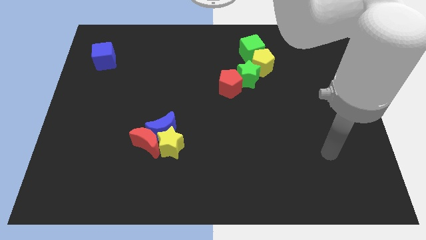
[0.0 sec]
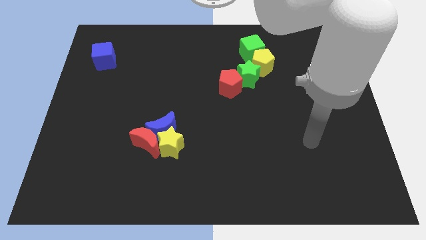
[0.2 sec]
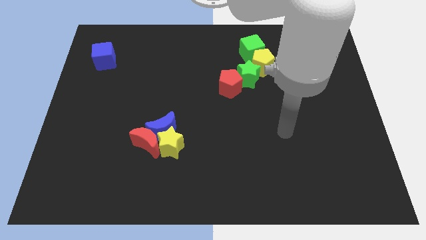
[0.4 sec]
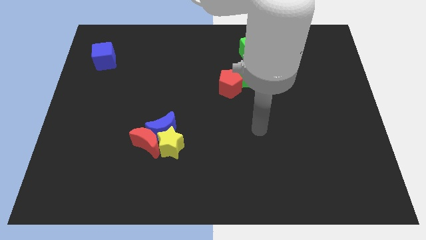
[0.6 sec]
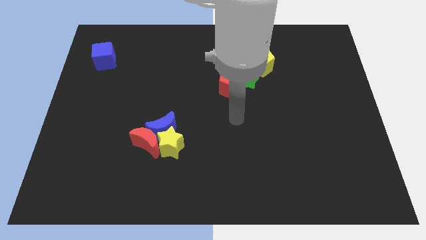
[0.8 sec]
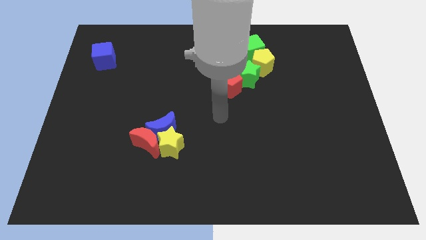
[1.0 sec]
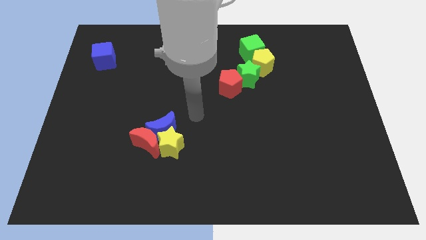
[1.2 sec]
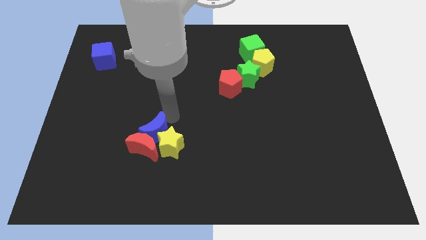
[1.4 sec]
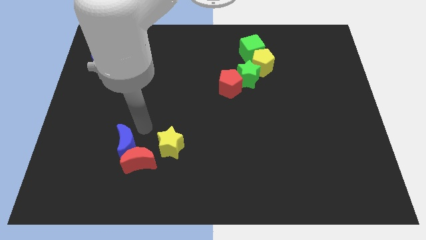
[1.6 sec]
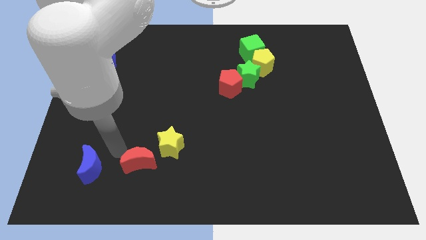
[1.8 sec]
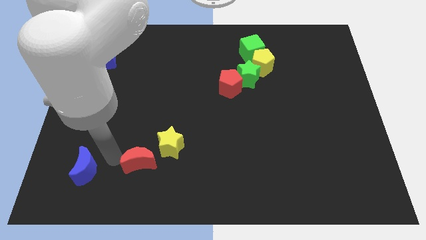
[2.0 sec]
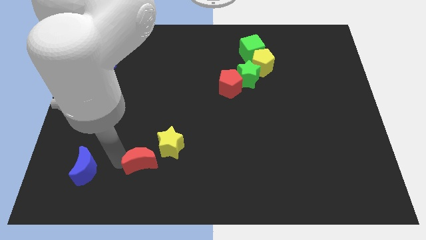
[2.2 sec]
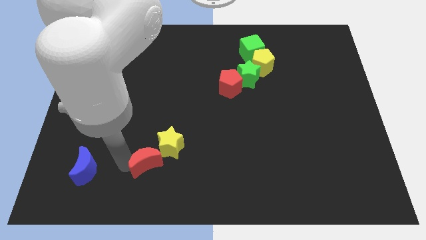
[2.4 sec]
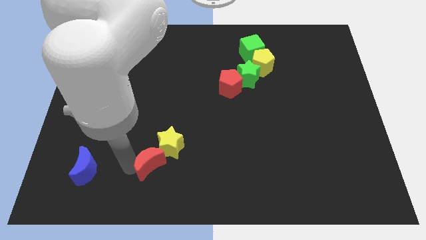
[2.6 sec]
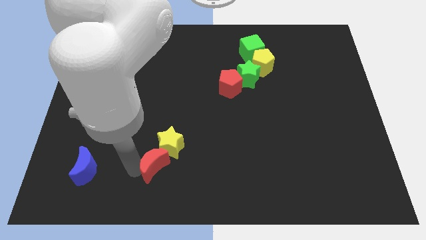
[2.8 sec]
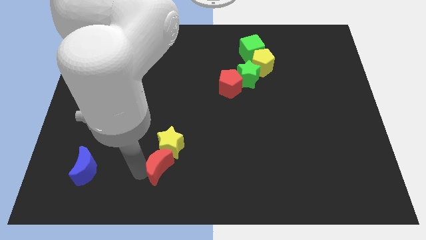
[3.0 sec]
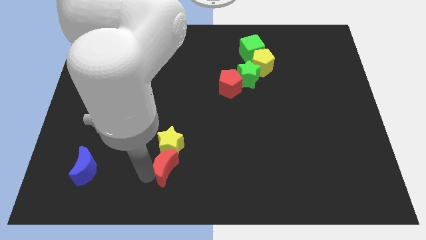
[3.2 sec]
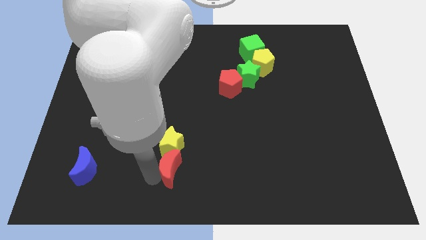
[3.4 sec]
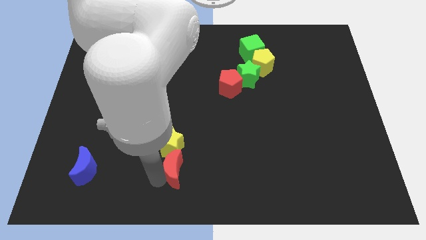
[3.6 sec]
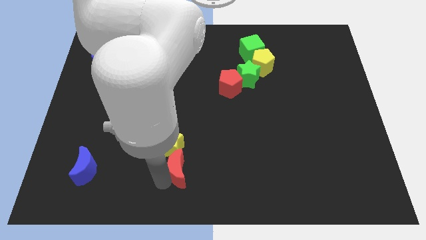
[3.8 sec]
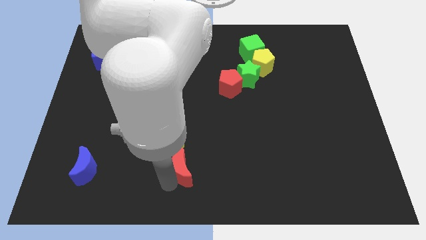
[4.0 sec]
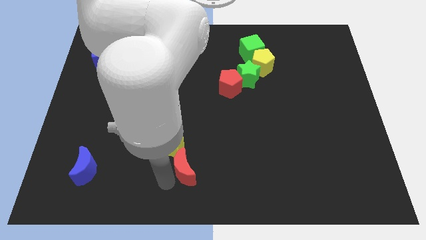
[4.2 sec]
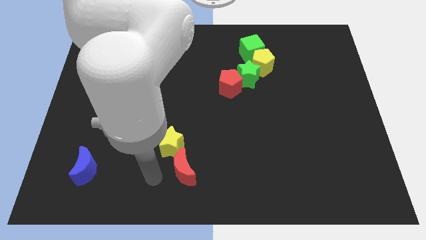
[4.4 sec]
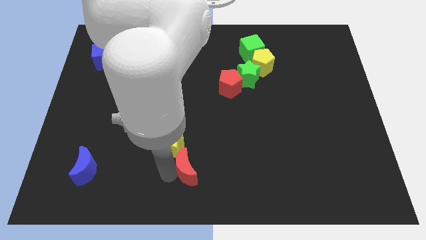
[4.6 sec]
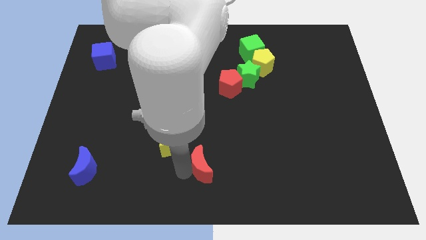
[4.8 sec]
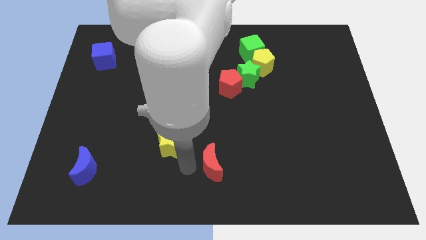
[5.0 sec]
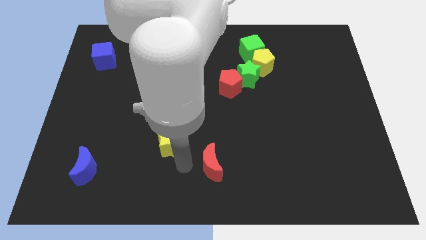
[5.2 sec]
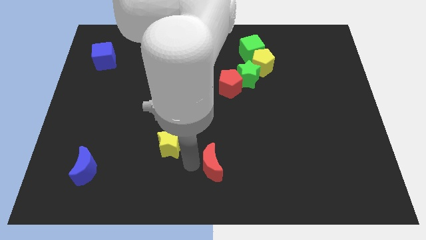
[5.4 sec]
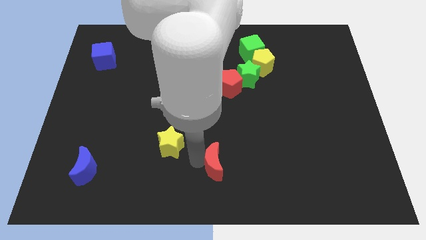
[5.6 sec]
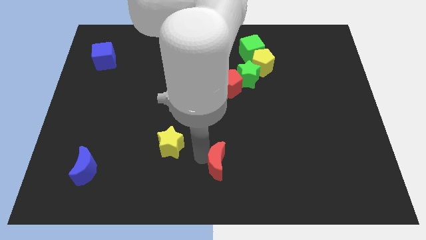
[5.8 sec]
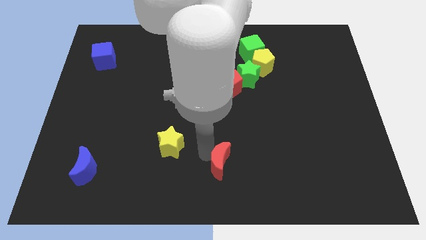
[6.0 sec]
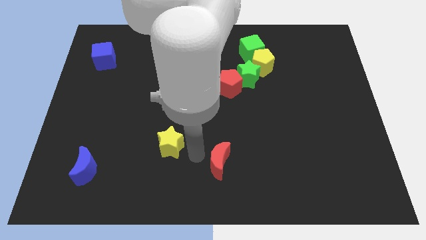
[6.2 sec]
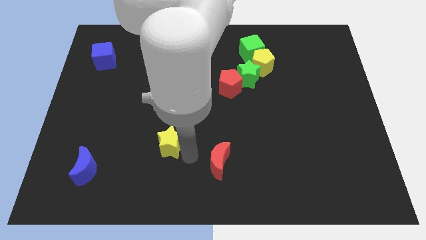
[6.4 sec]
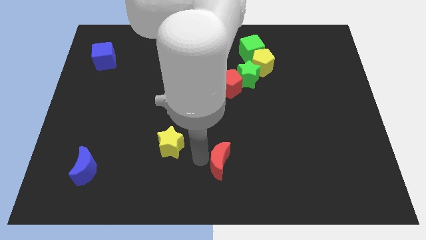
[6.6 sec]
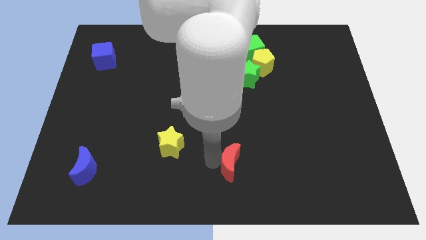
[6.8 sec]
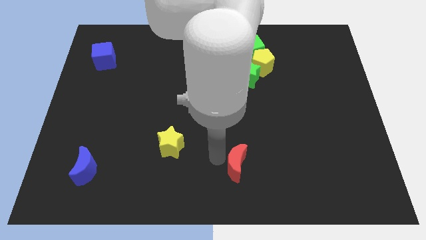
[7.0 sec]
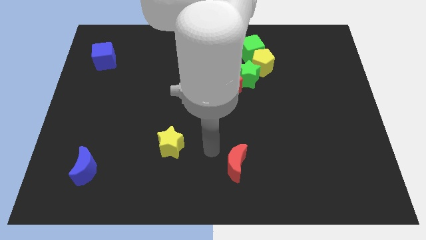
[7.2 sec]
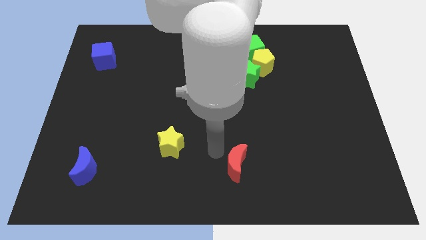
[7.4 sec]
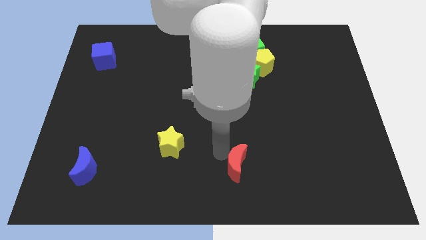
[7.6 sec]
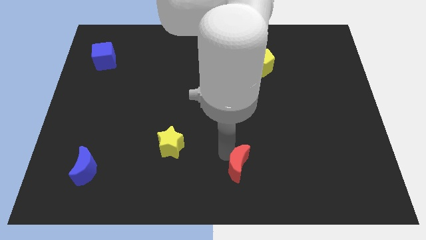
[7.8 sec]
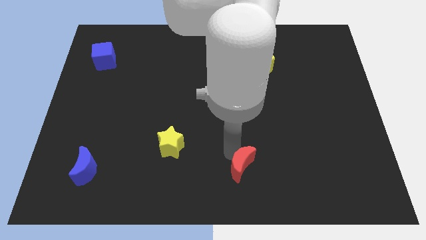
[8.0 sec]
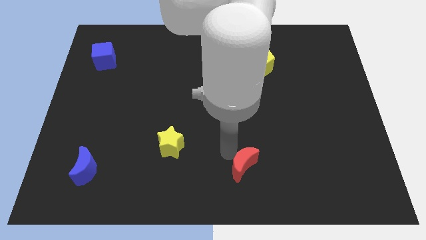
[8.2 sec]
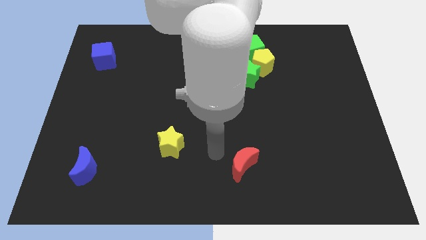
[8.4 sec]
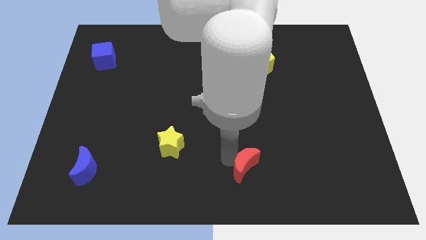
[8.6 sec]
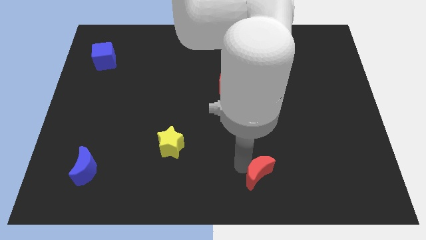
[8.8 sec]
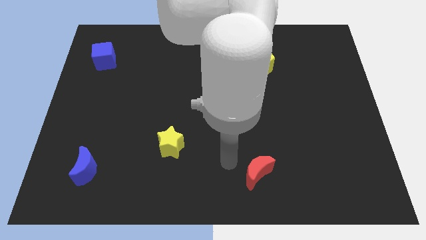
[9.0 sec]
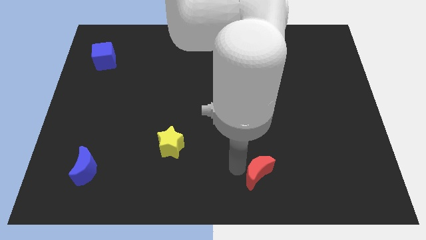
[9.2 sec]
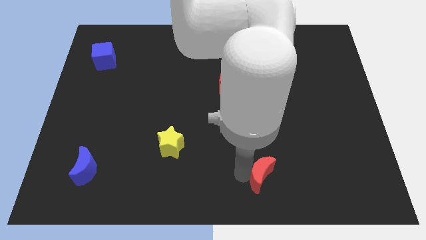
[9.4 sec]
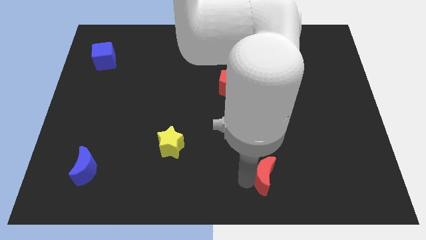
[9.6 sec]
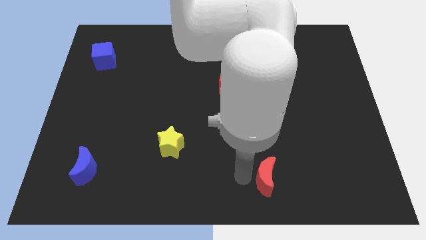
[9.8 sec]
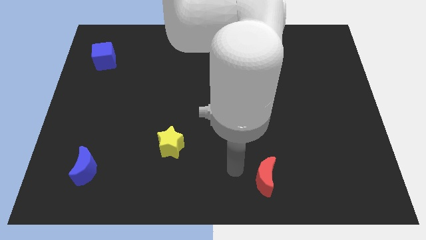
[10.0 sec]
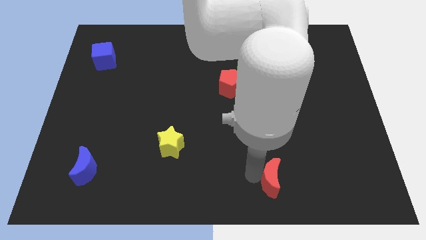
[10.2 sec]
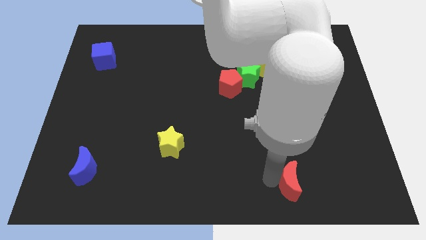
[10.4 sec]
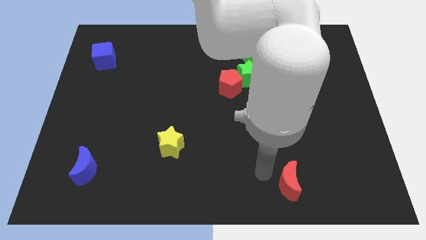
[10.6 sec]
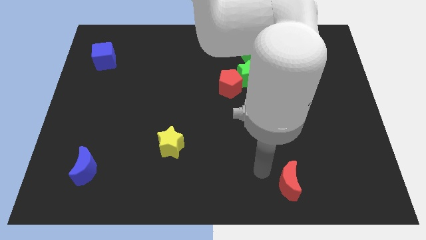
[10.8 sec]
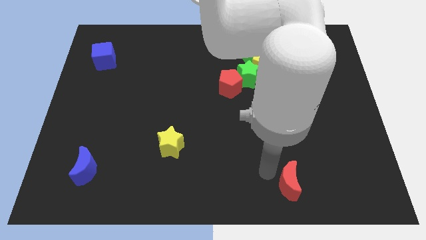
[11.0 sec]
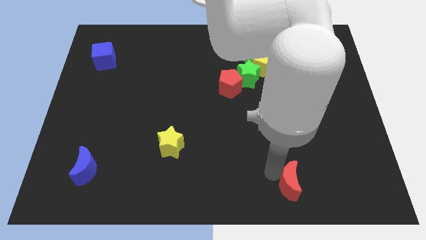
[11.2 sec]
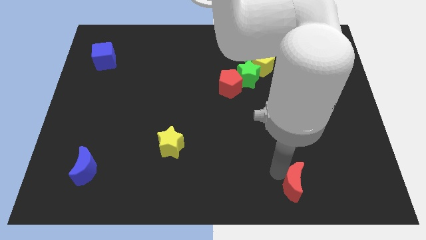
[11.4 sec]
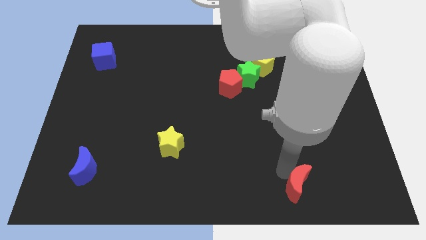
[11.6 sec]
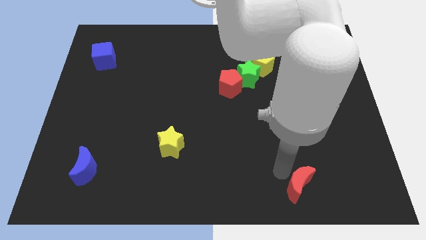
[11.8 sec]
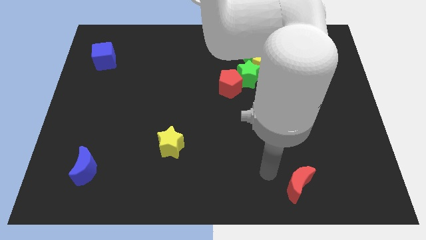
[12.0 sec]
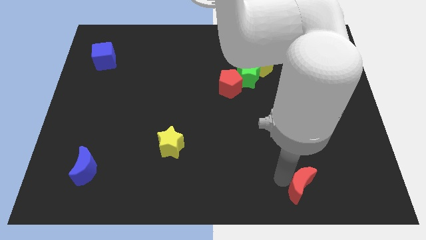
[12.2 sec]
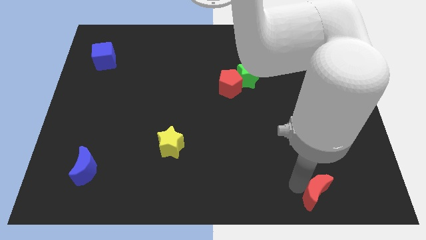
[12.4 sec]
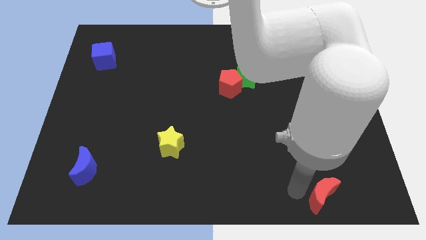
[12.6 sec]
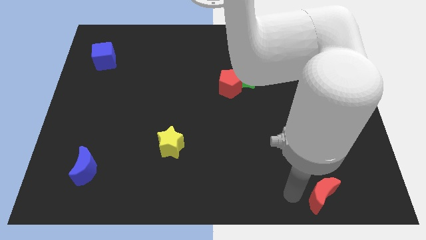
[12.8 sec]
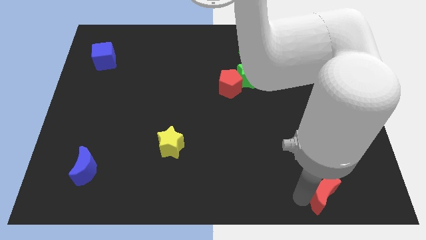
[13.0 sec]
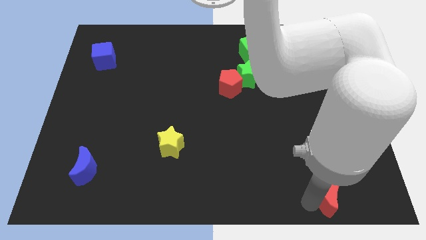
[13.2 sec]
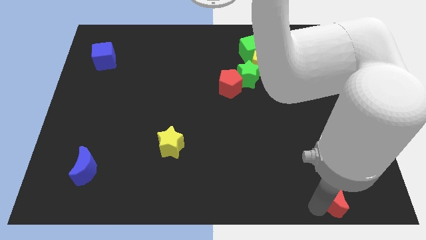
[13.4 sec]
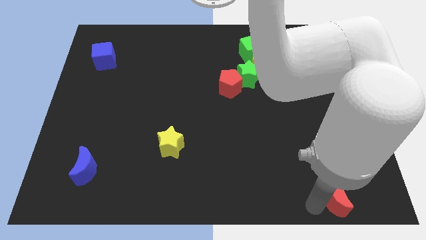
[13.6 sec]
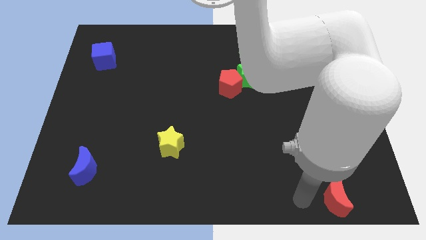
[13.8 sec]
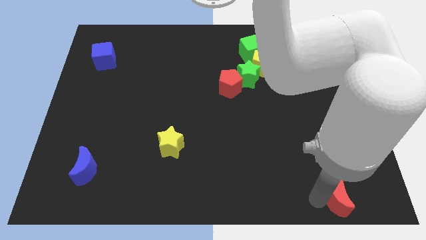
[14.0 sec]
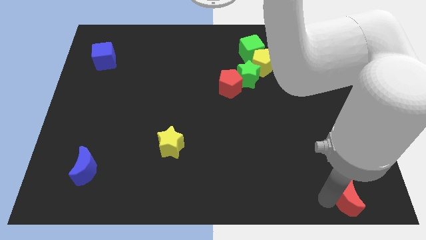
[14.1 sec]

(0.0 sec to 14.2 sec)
put the red moon to the bottom right of the board

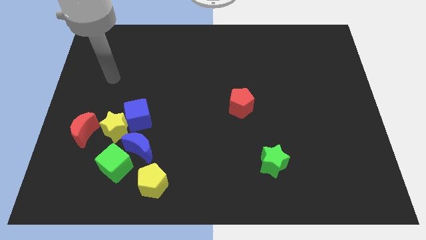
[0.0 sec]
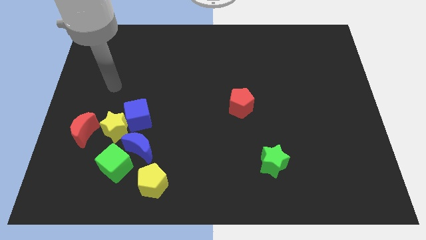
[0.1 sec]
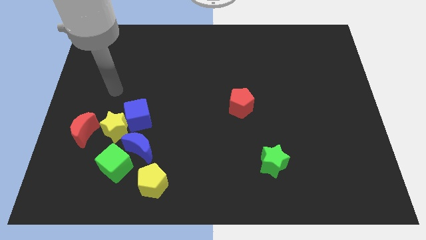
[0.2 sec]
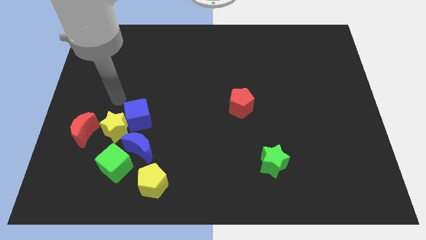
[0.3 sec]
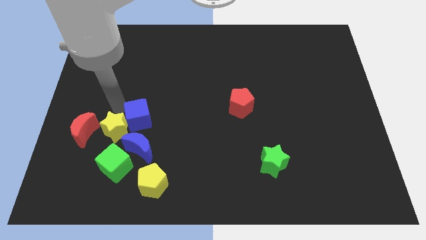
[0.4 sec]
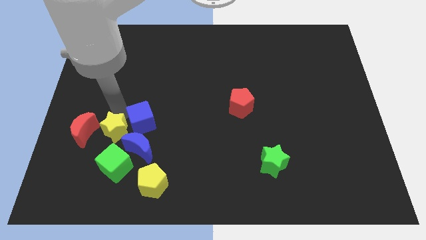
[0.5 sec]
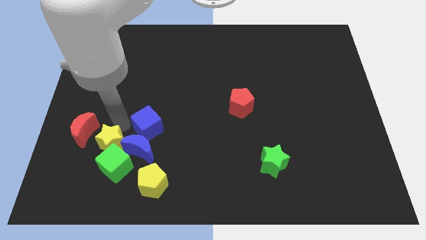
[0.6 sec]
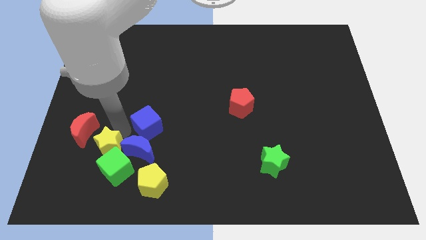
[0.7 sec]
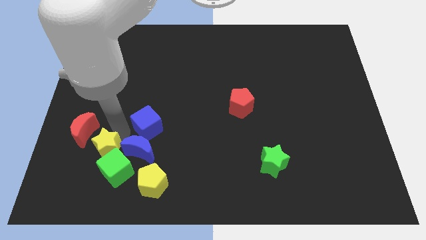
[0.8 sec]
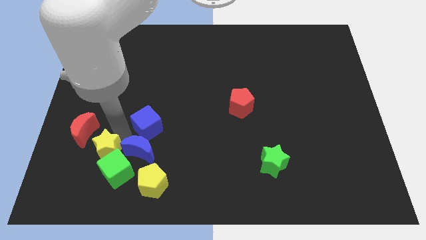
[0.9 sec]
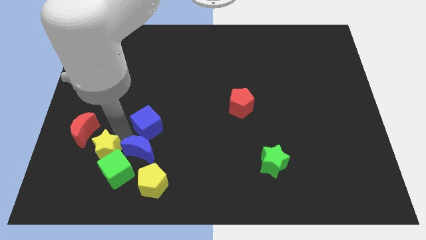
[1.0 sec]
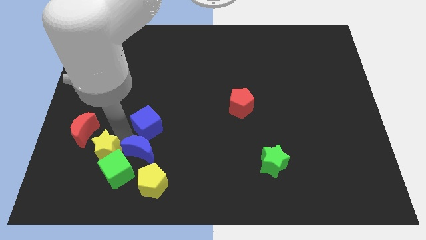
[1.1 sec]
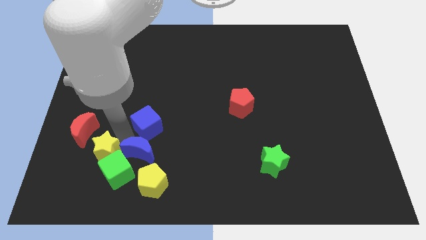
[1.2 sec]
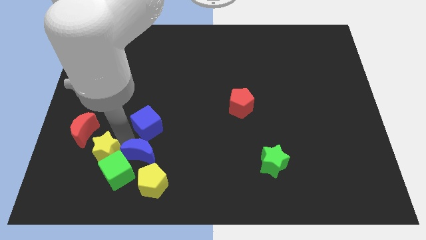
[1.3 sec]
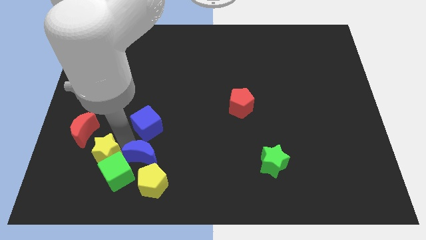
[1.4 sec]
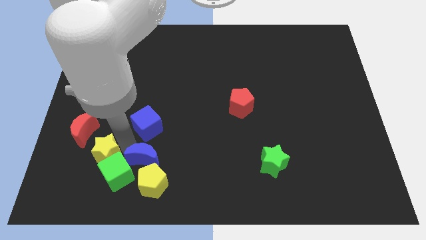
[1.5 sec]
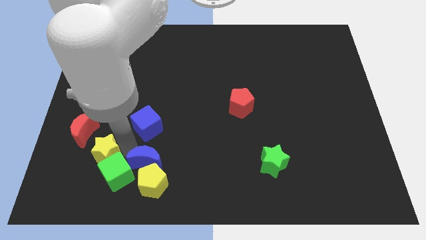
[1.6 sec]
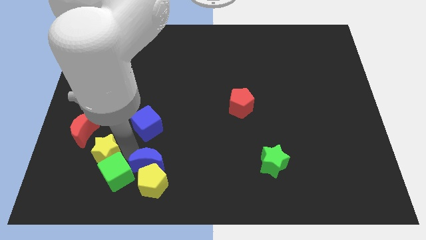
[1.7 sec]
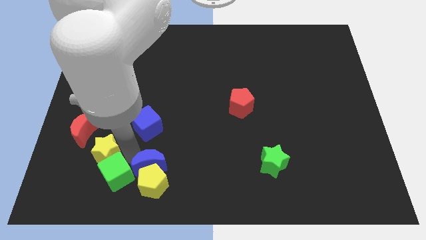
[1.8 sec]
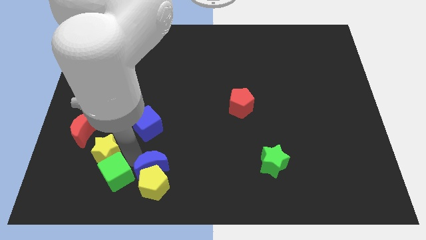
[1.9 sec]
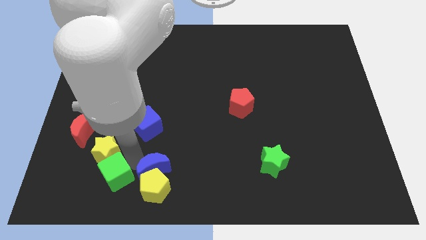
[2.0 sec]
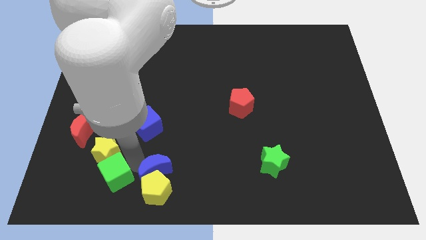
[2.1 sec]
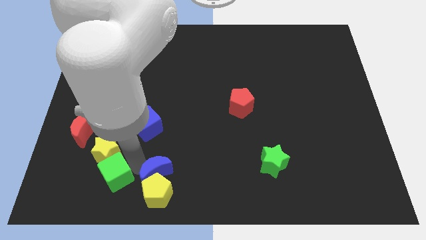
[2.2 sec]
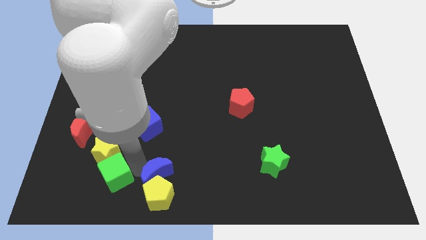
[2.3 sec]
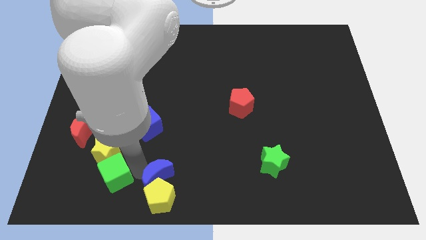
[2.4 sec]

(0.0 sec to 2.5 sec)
slide the blue moon to the bottom side
